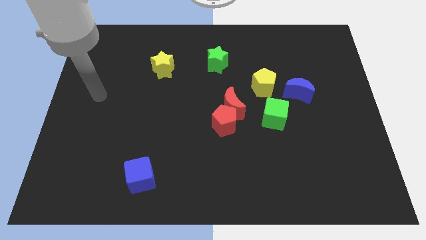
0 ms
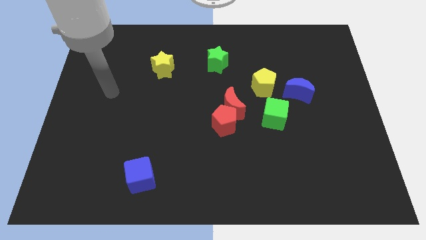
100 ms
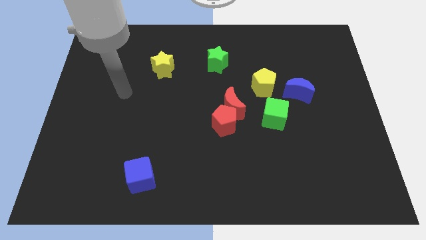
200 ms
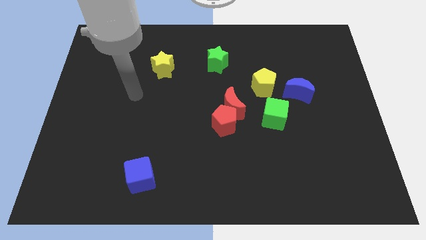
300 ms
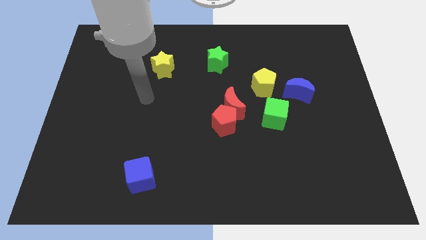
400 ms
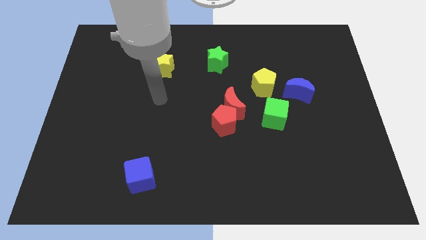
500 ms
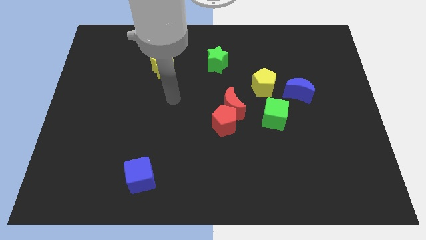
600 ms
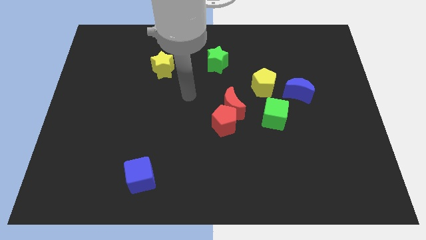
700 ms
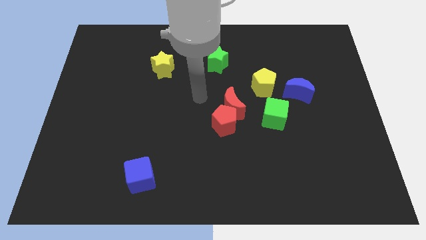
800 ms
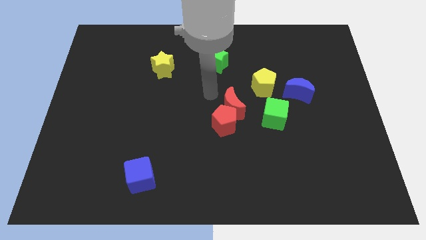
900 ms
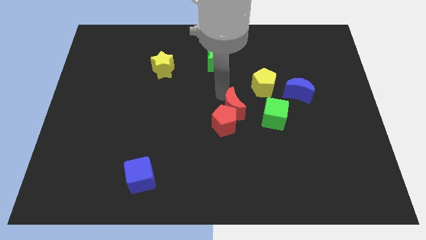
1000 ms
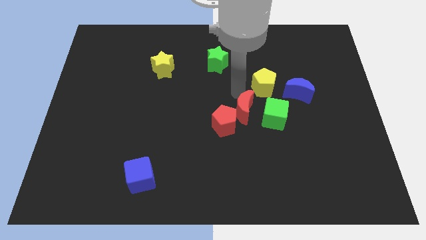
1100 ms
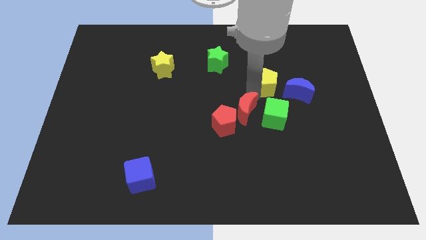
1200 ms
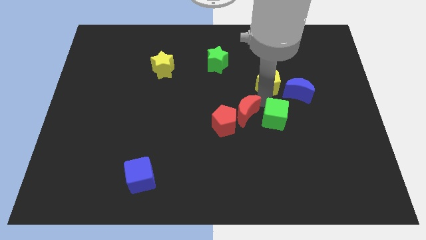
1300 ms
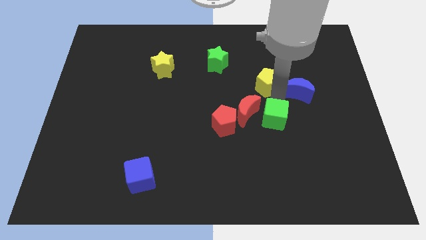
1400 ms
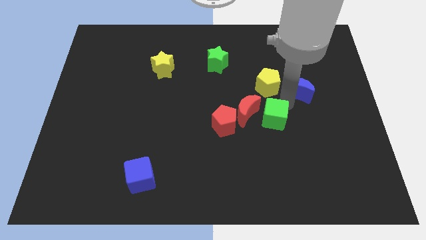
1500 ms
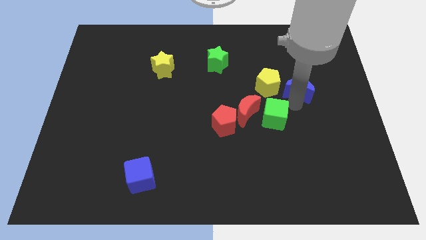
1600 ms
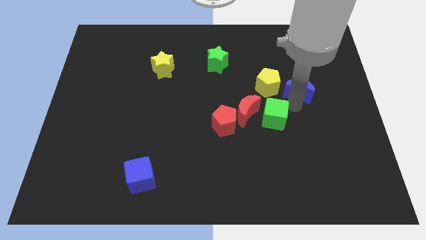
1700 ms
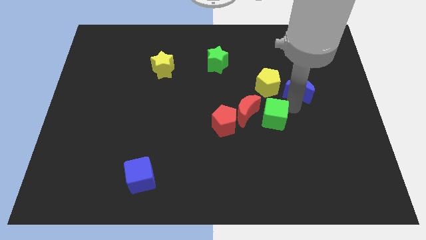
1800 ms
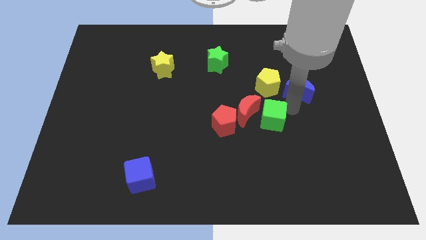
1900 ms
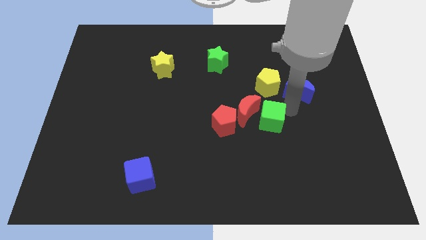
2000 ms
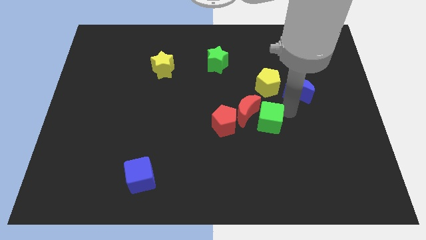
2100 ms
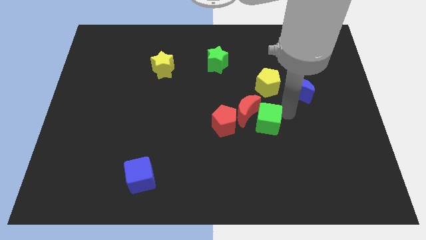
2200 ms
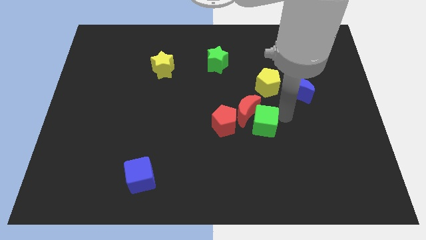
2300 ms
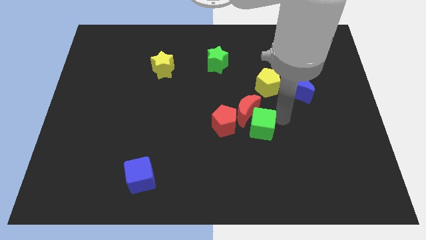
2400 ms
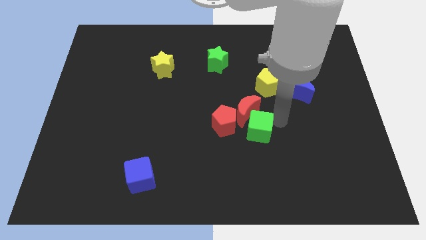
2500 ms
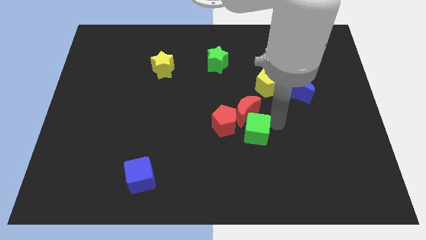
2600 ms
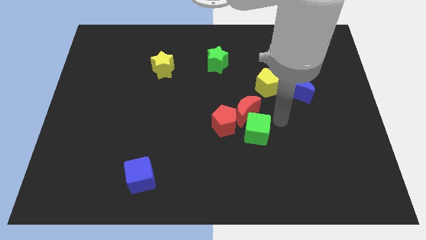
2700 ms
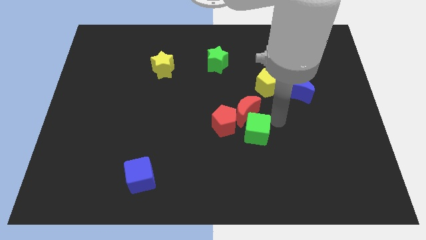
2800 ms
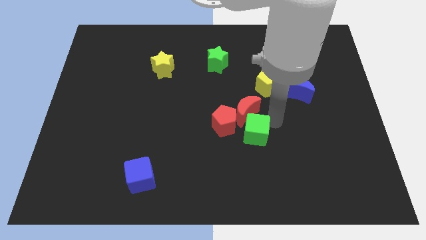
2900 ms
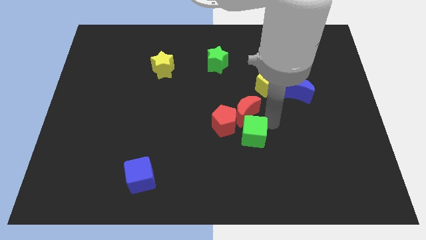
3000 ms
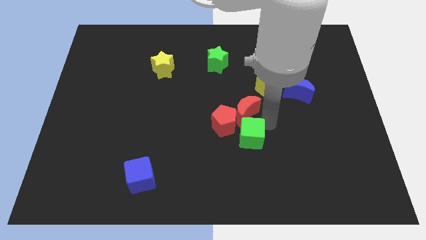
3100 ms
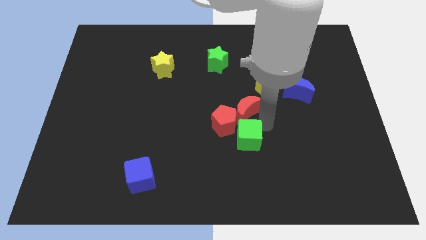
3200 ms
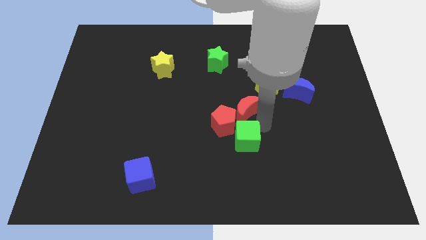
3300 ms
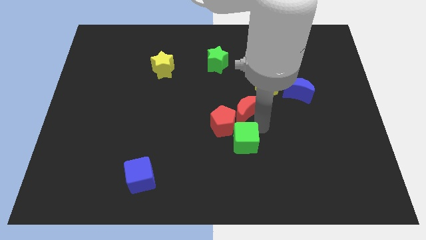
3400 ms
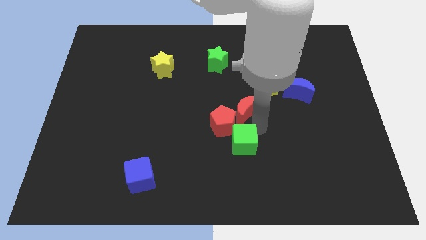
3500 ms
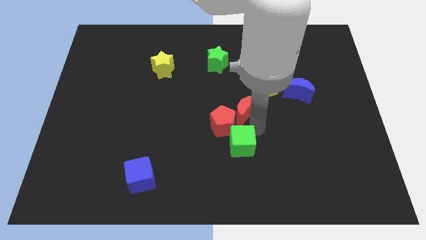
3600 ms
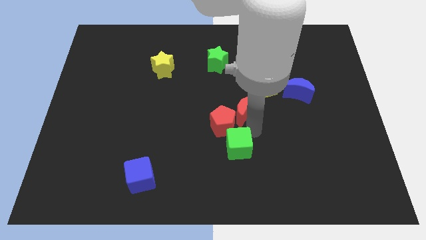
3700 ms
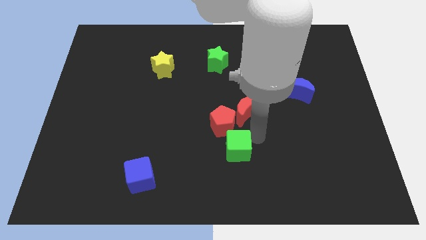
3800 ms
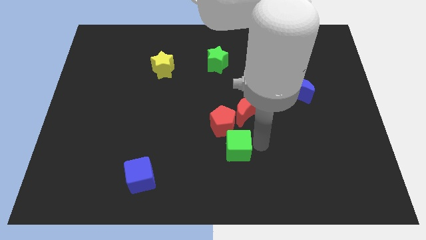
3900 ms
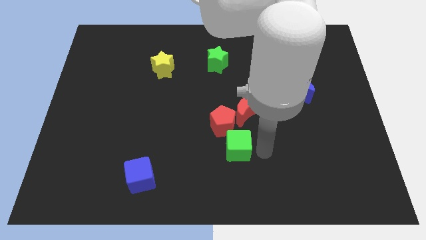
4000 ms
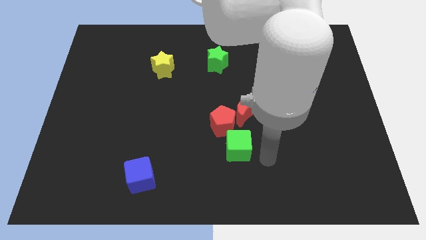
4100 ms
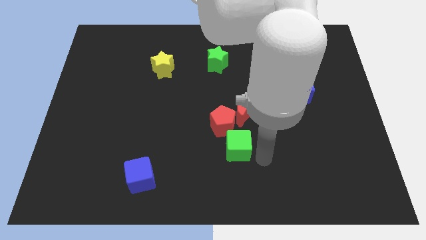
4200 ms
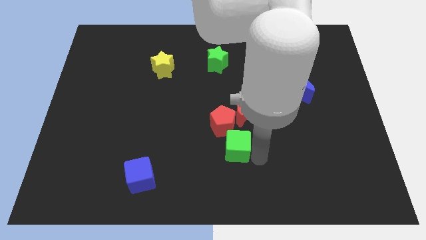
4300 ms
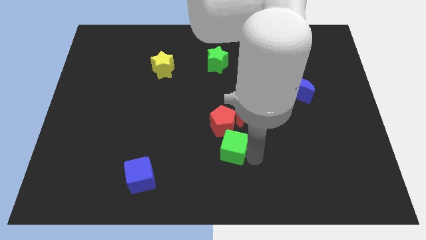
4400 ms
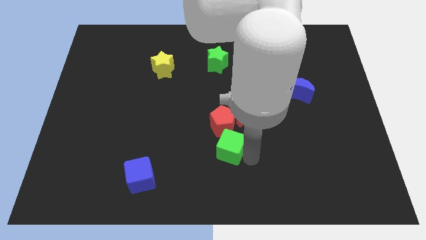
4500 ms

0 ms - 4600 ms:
push the green cube a little to the left

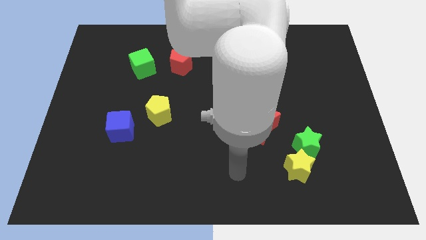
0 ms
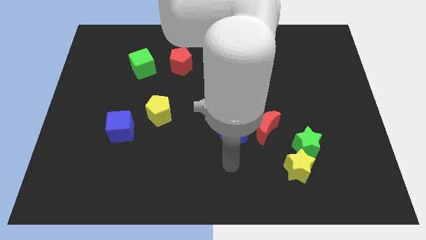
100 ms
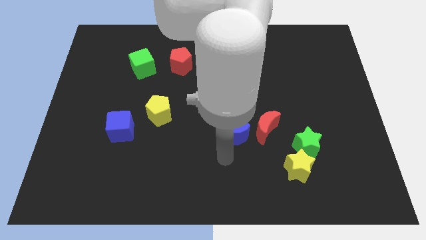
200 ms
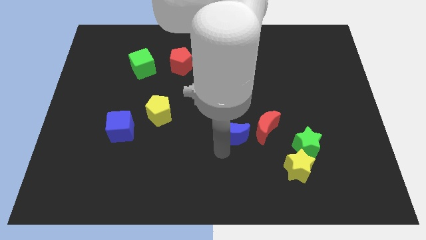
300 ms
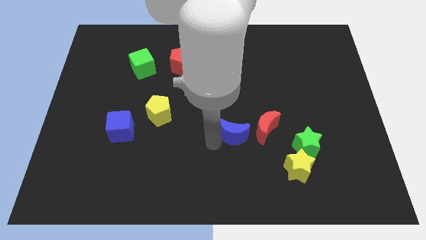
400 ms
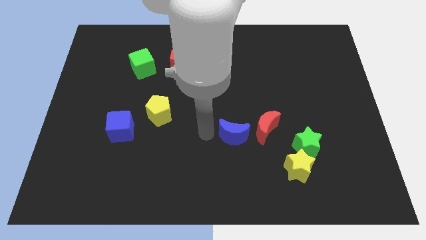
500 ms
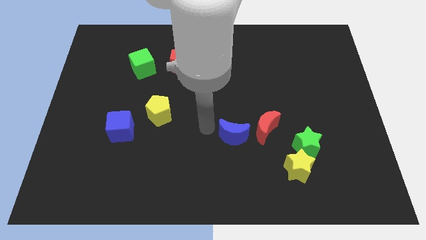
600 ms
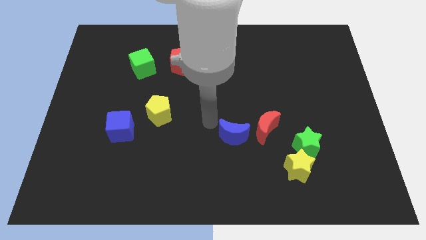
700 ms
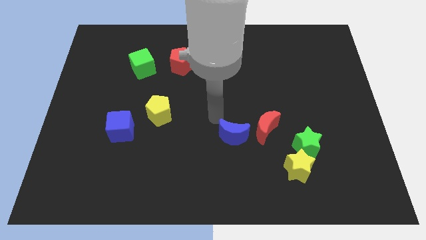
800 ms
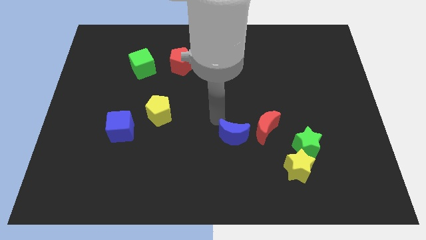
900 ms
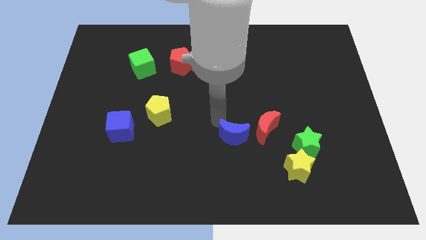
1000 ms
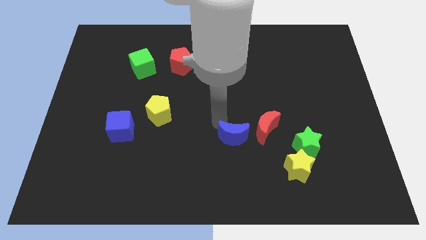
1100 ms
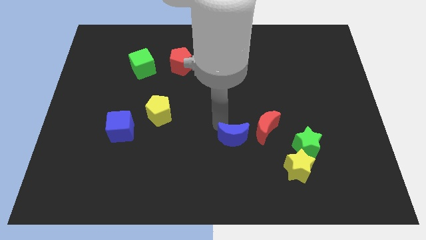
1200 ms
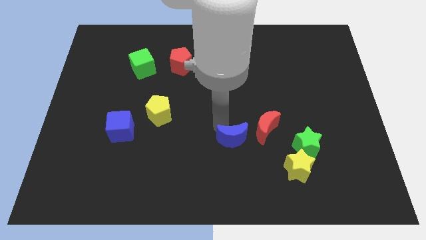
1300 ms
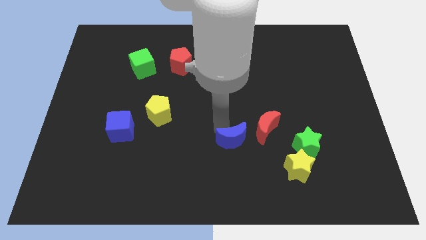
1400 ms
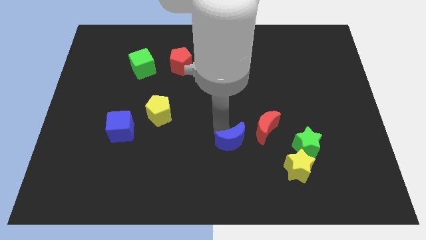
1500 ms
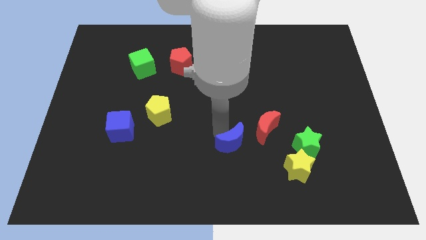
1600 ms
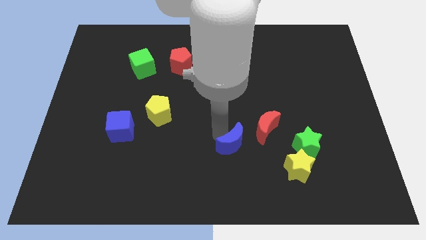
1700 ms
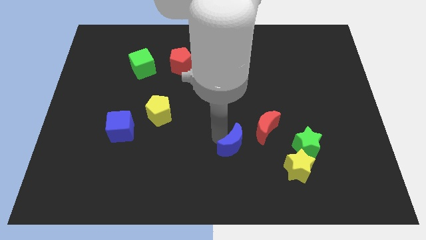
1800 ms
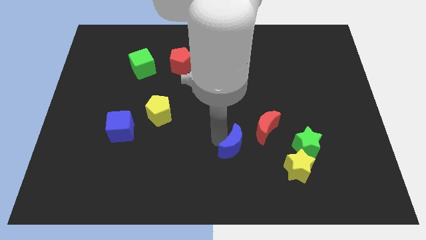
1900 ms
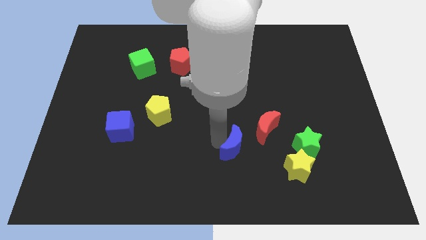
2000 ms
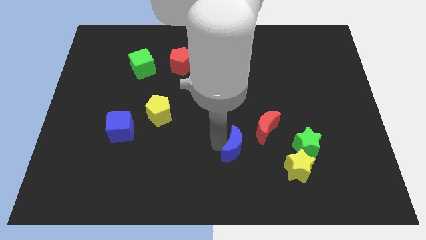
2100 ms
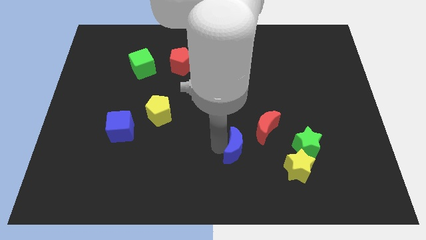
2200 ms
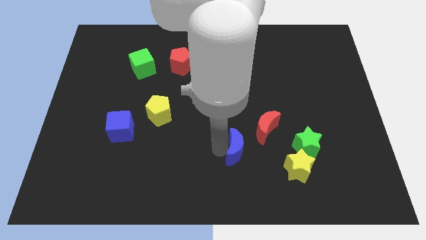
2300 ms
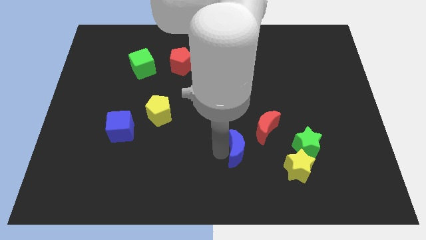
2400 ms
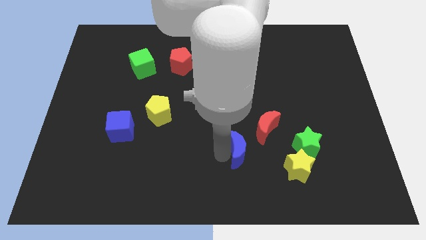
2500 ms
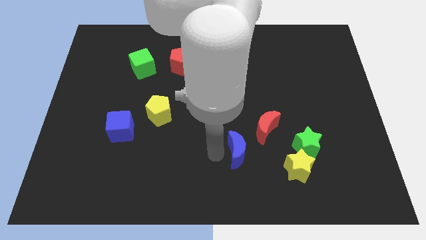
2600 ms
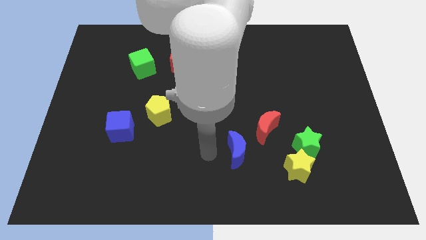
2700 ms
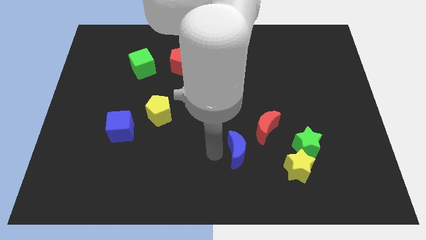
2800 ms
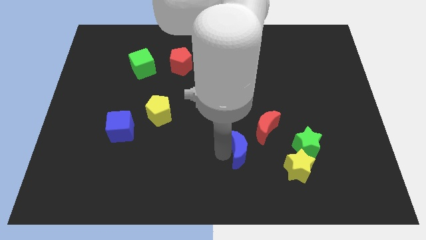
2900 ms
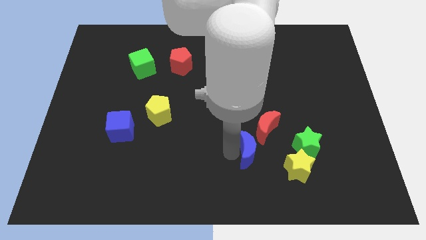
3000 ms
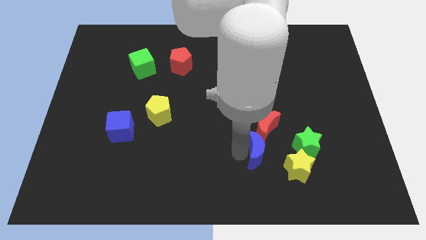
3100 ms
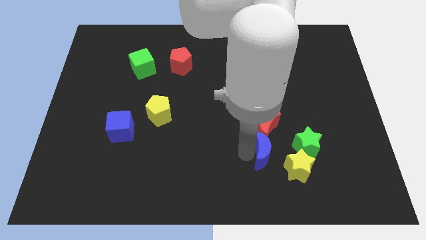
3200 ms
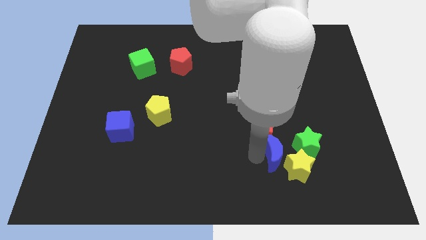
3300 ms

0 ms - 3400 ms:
push the blue moon a little bit to the right

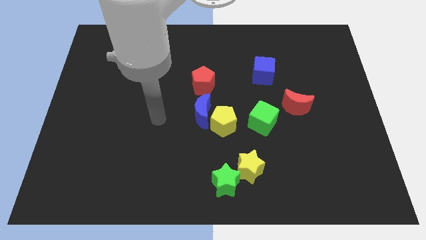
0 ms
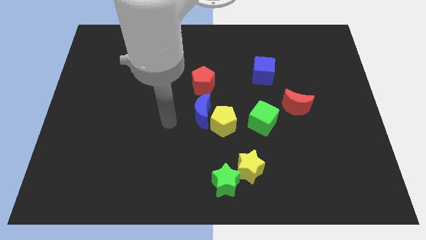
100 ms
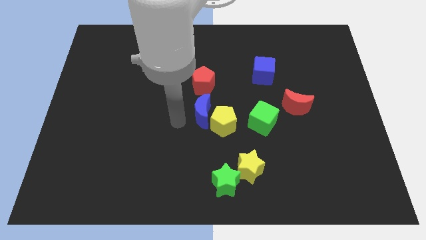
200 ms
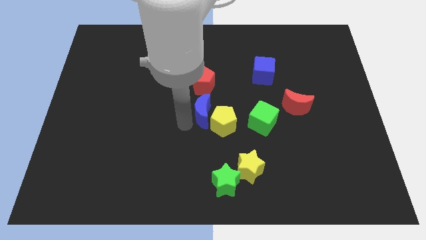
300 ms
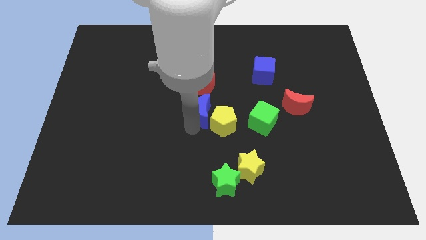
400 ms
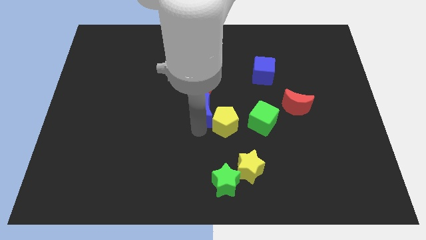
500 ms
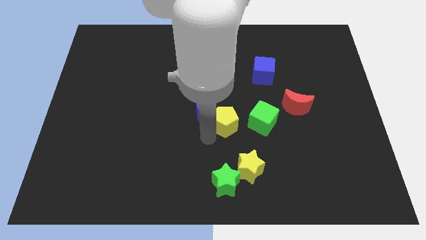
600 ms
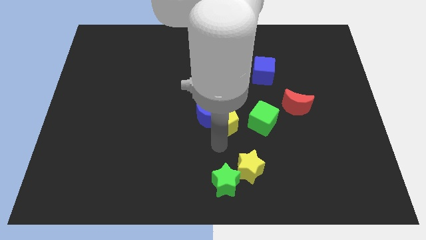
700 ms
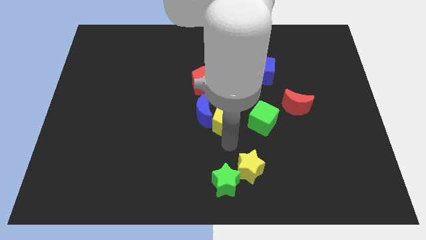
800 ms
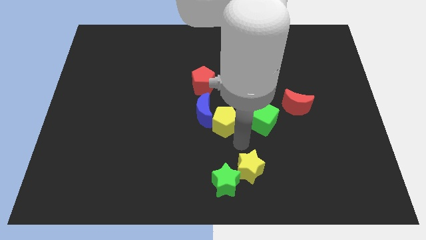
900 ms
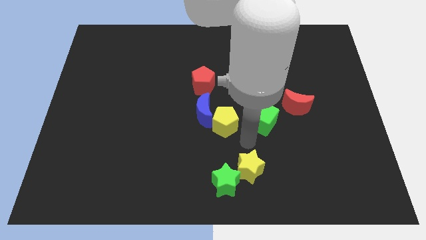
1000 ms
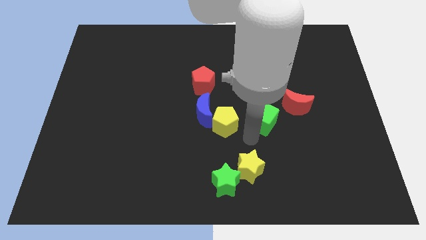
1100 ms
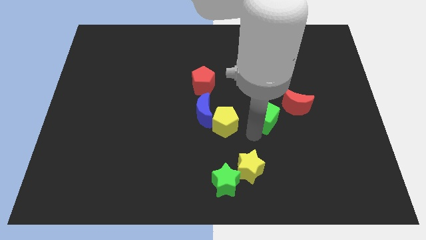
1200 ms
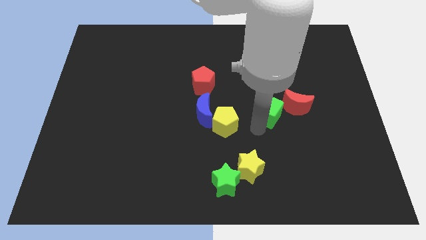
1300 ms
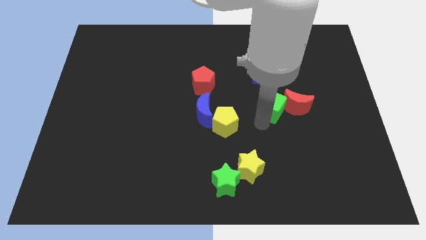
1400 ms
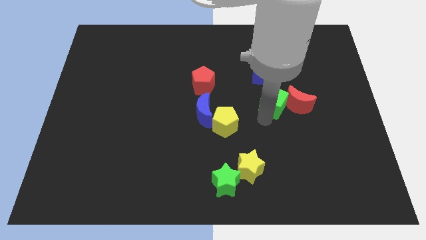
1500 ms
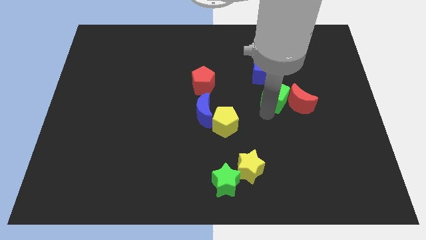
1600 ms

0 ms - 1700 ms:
push the green cube a little upwards and then to the right
